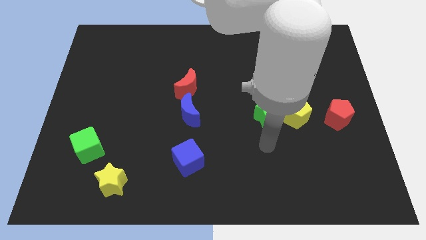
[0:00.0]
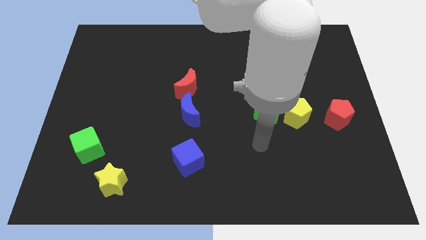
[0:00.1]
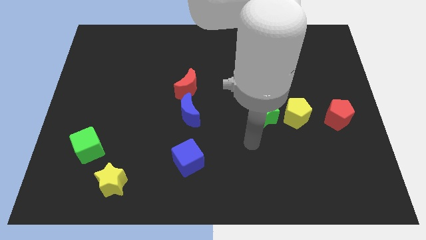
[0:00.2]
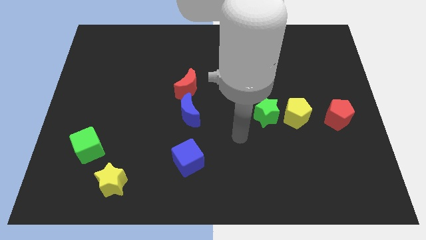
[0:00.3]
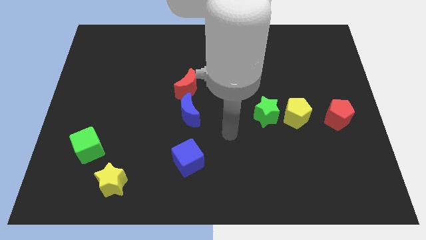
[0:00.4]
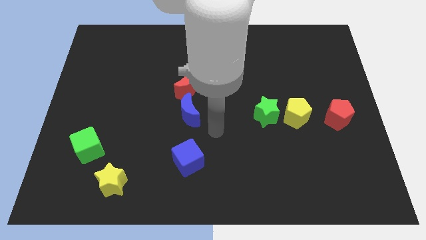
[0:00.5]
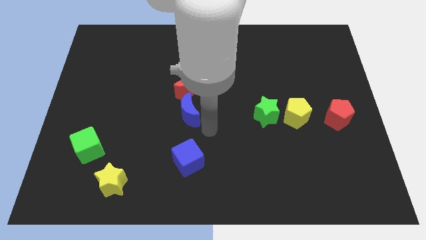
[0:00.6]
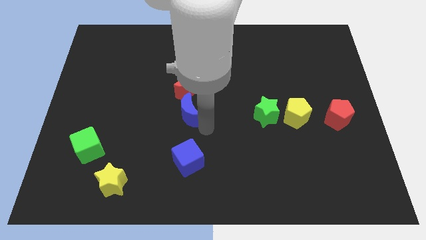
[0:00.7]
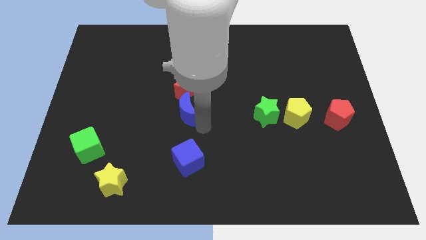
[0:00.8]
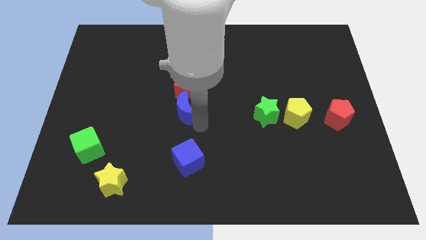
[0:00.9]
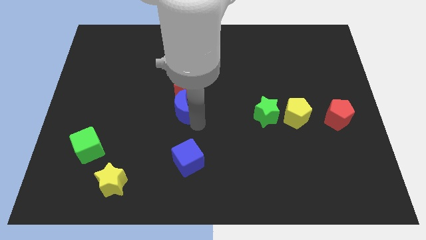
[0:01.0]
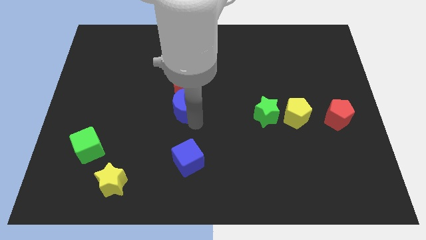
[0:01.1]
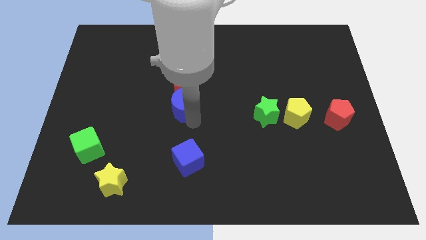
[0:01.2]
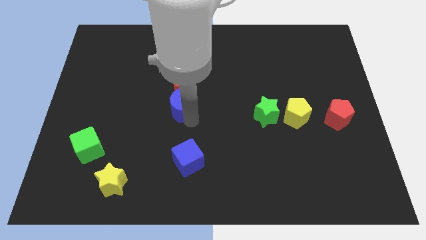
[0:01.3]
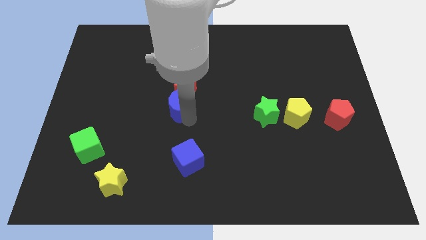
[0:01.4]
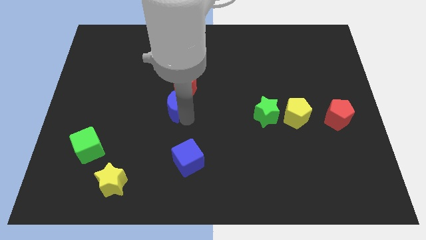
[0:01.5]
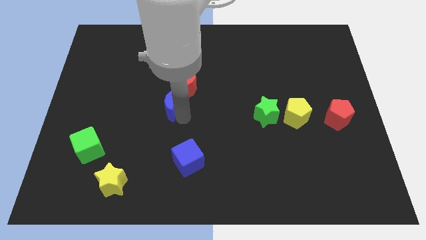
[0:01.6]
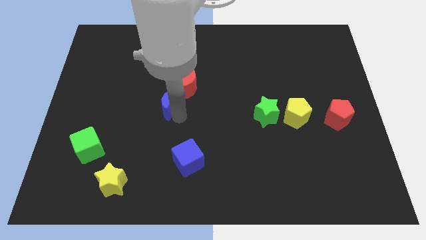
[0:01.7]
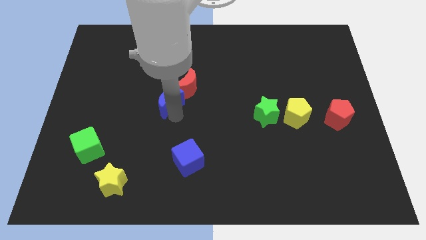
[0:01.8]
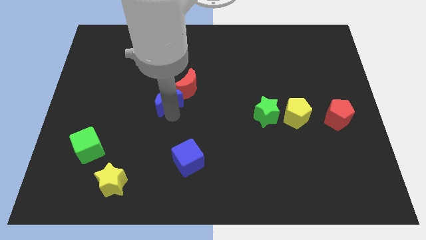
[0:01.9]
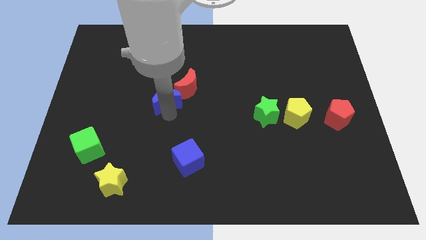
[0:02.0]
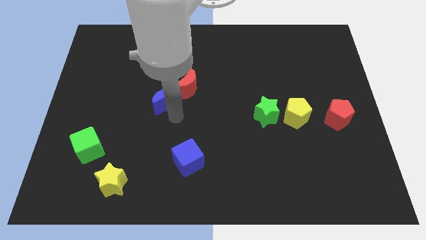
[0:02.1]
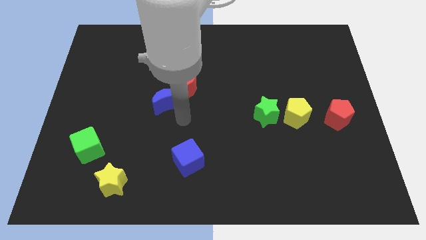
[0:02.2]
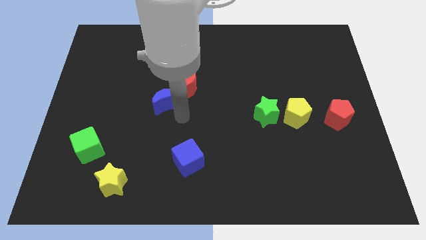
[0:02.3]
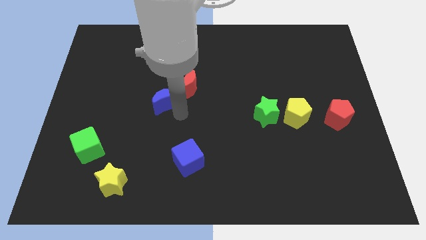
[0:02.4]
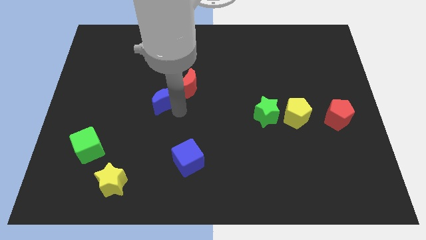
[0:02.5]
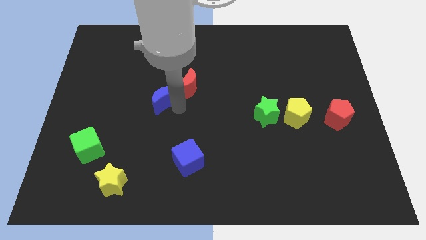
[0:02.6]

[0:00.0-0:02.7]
slide the blue moon diagonally up and left somewhat

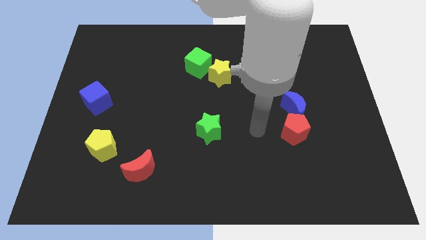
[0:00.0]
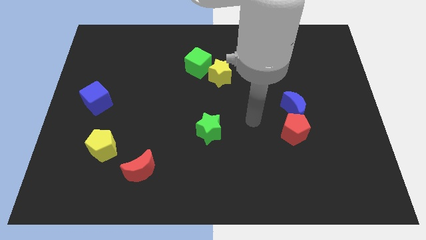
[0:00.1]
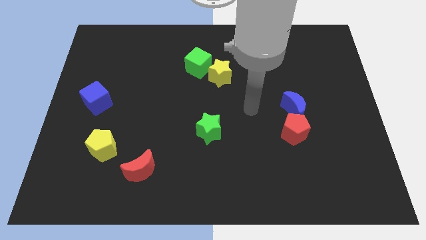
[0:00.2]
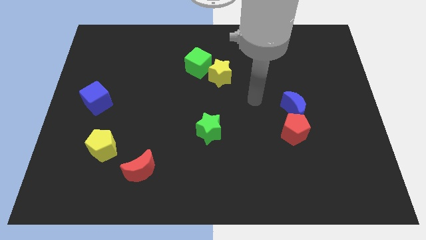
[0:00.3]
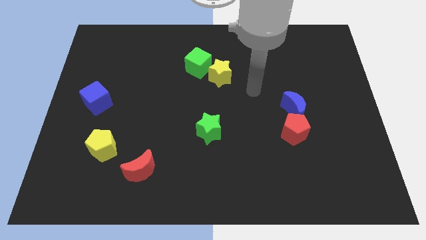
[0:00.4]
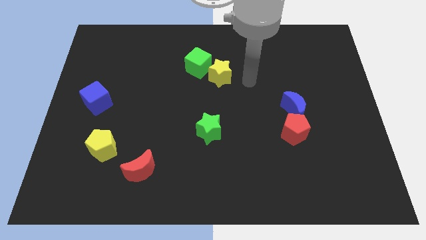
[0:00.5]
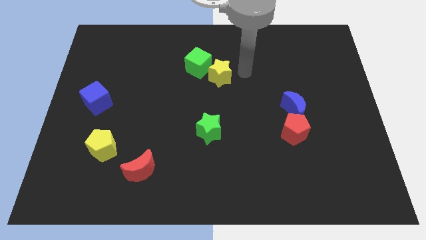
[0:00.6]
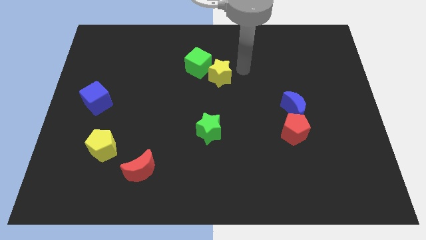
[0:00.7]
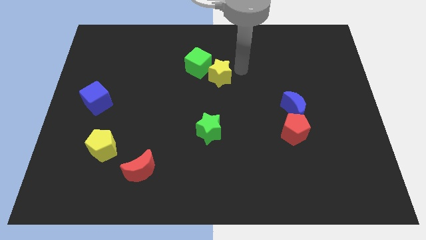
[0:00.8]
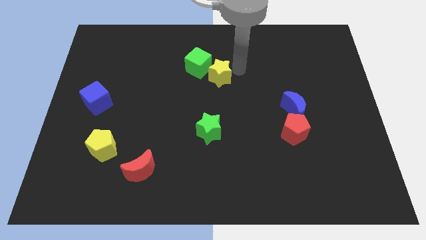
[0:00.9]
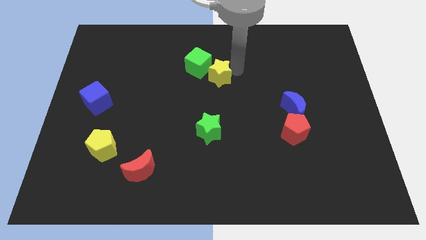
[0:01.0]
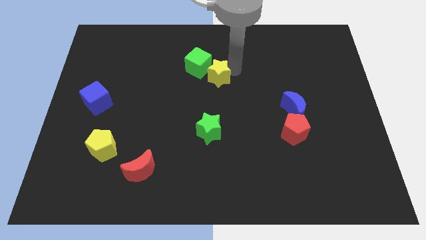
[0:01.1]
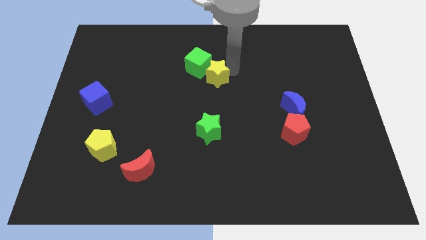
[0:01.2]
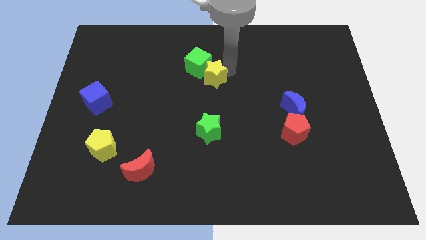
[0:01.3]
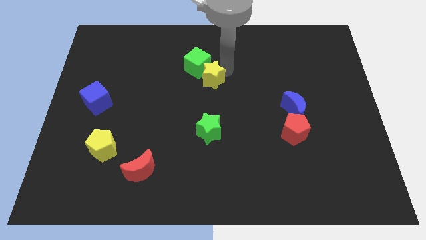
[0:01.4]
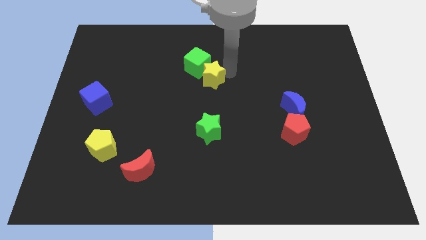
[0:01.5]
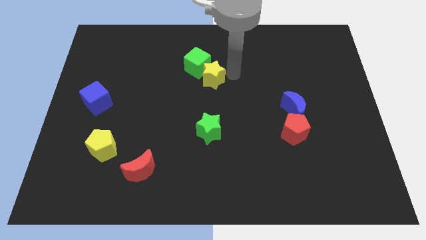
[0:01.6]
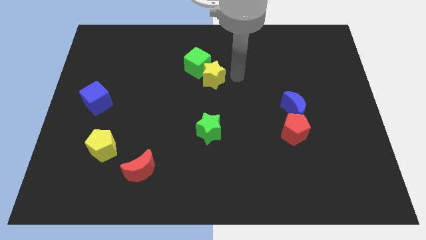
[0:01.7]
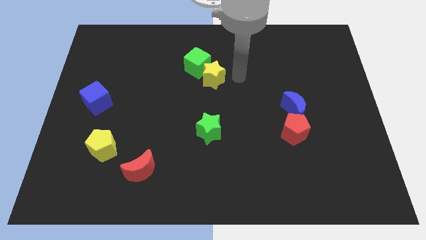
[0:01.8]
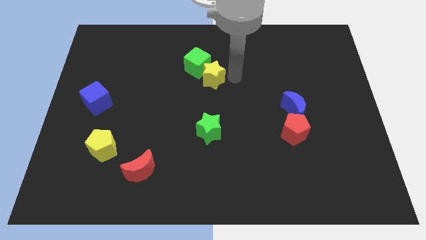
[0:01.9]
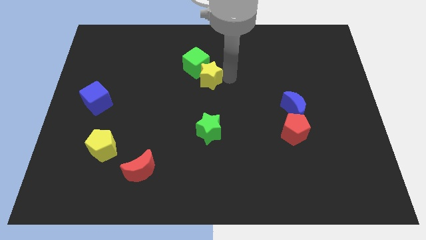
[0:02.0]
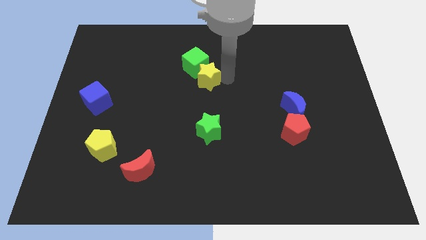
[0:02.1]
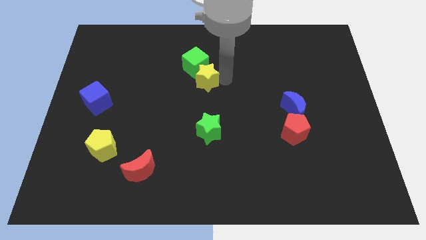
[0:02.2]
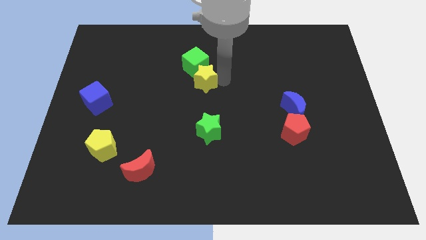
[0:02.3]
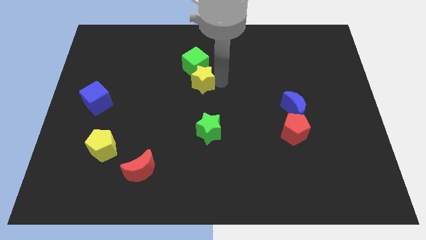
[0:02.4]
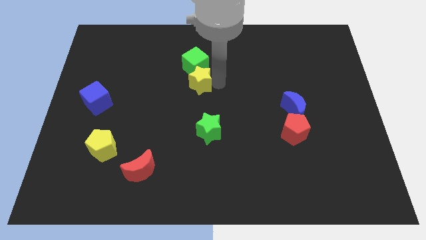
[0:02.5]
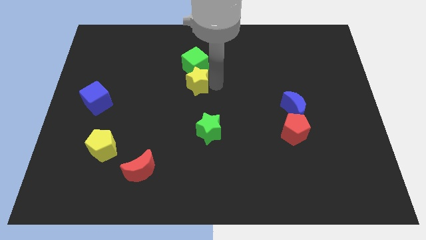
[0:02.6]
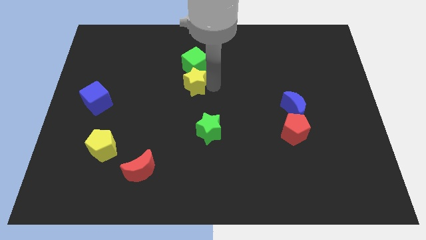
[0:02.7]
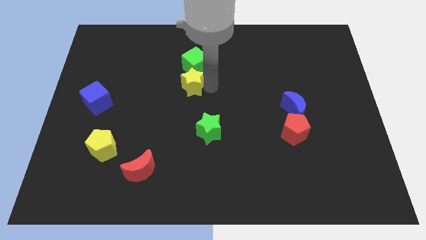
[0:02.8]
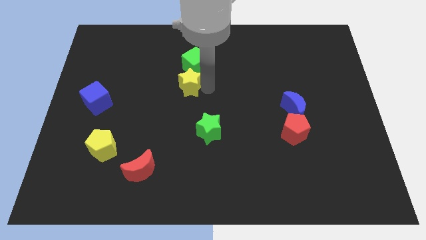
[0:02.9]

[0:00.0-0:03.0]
move the yellow star left somewhat

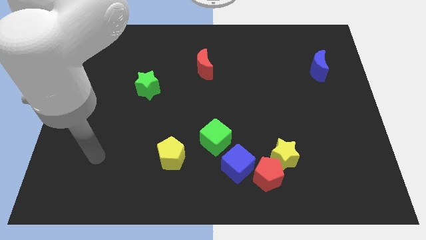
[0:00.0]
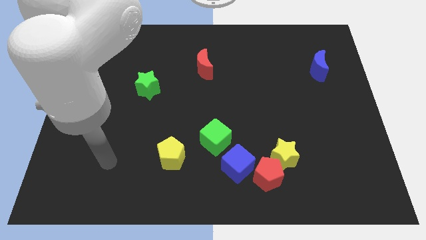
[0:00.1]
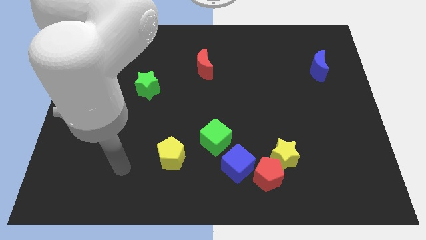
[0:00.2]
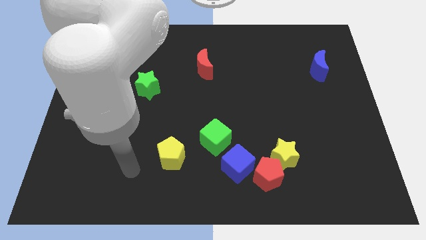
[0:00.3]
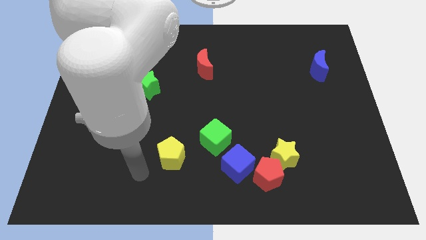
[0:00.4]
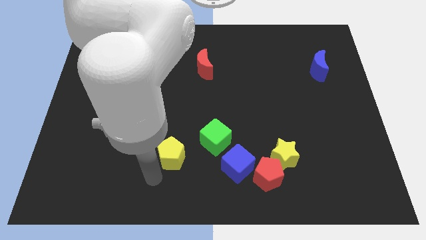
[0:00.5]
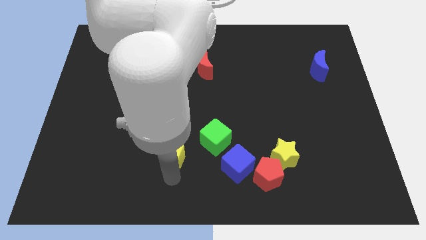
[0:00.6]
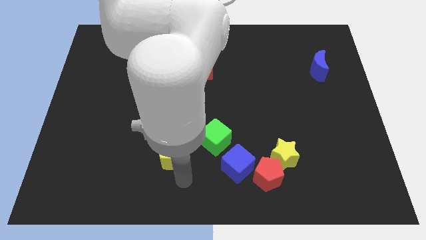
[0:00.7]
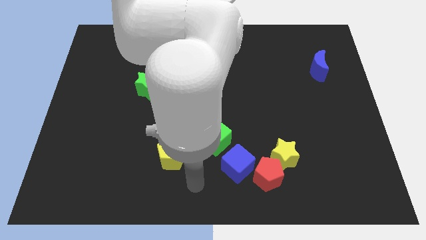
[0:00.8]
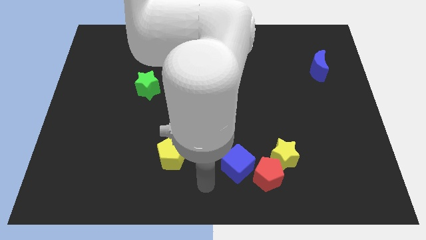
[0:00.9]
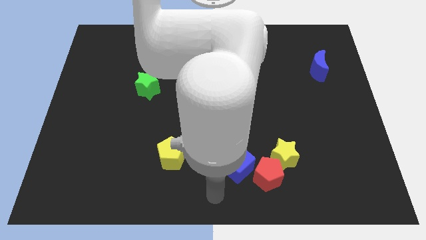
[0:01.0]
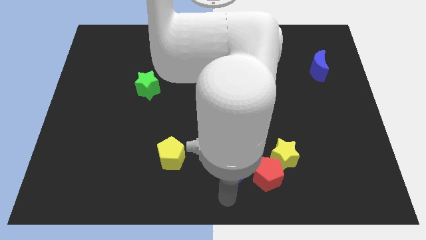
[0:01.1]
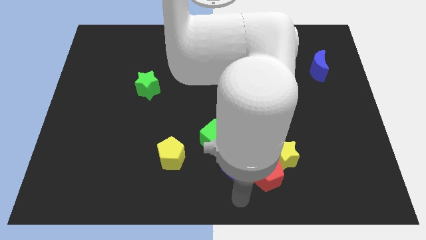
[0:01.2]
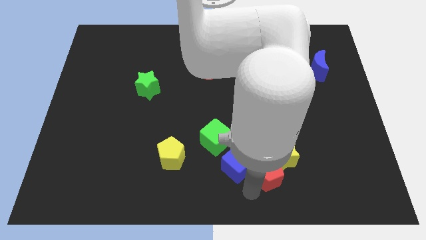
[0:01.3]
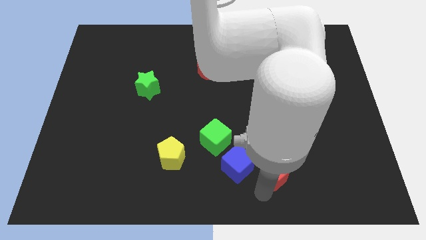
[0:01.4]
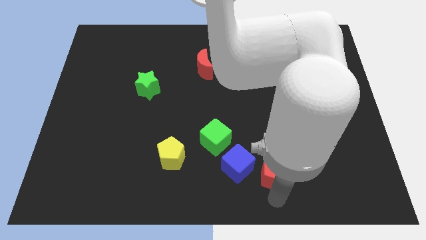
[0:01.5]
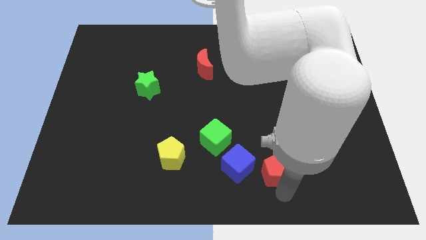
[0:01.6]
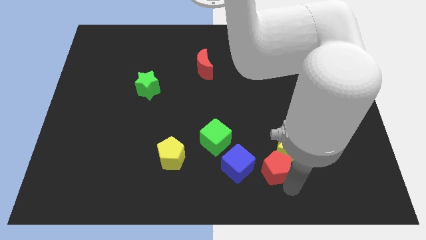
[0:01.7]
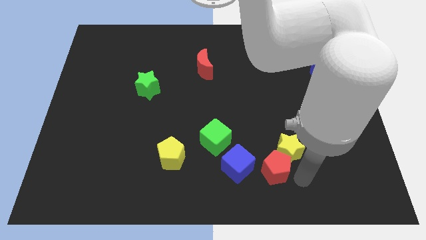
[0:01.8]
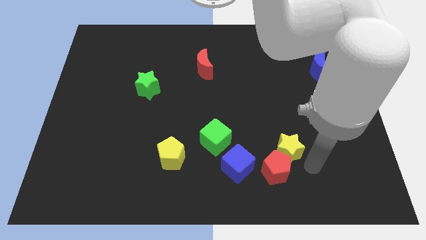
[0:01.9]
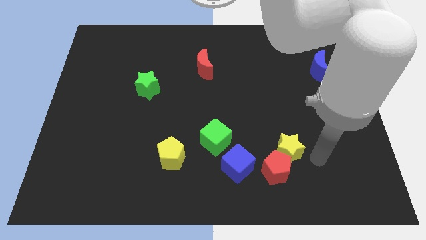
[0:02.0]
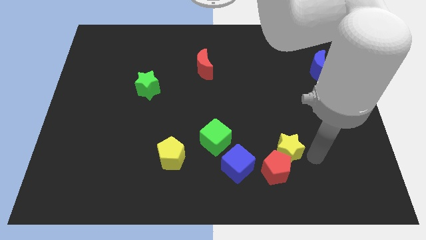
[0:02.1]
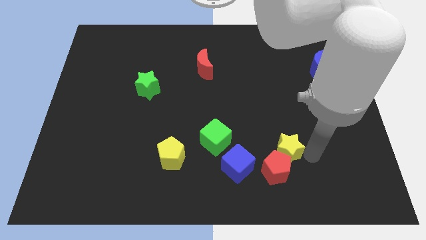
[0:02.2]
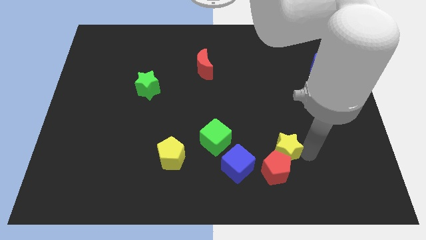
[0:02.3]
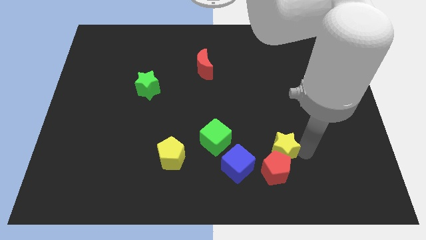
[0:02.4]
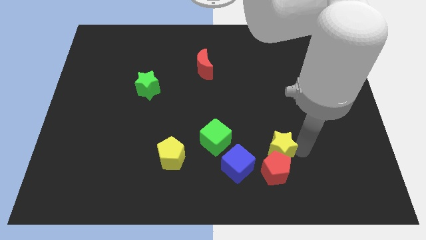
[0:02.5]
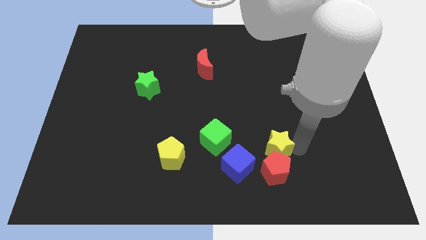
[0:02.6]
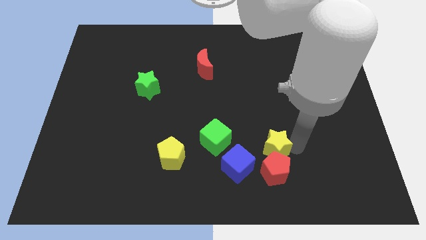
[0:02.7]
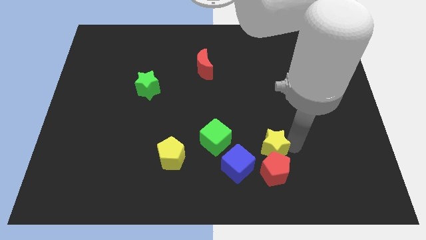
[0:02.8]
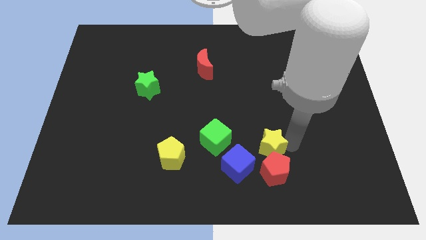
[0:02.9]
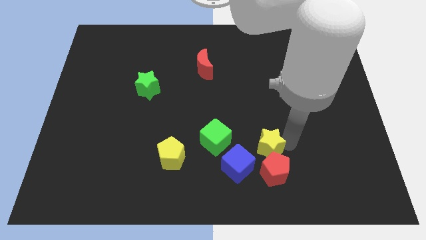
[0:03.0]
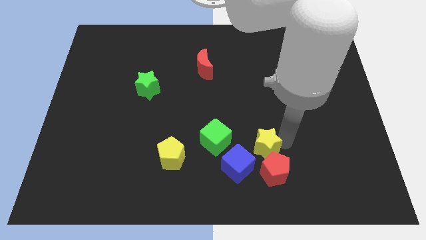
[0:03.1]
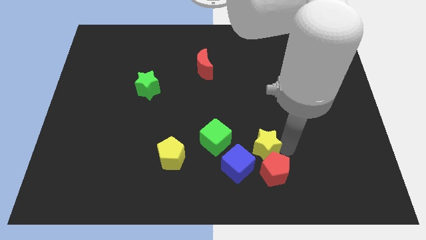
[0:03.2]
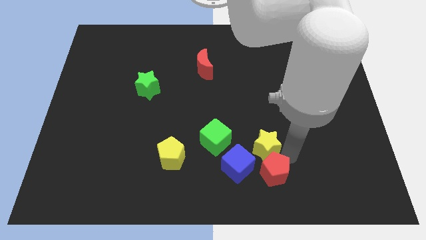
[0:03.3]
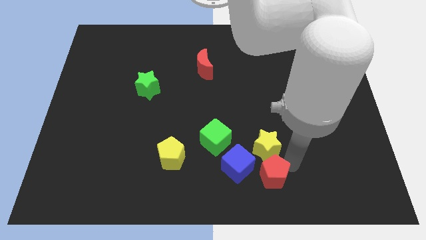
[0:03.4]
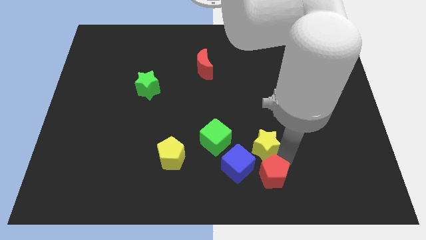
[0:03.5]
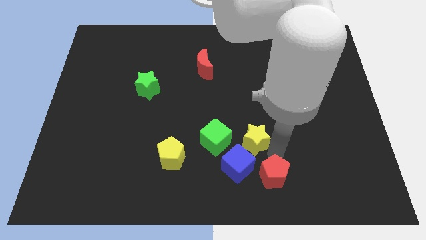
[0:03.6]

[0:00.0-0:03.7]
push the yellow star diagonally upwards and left a little bit
